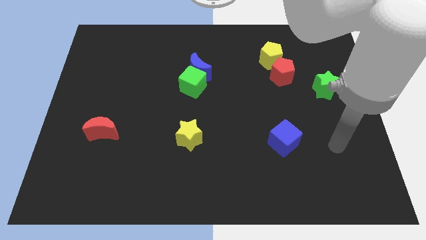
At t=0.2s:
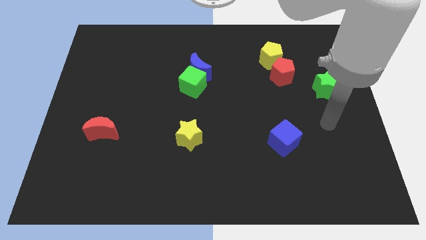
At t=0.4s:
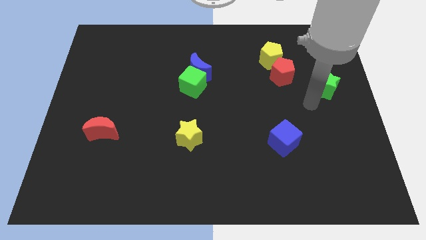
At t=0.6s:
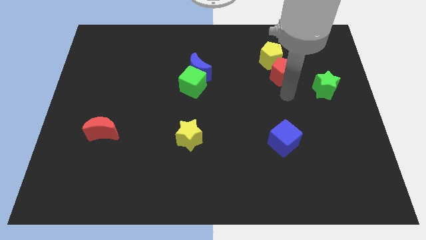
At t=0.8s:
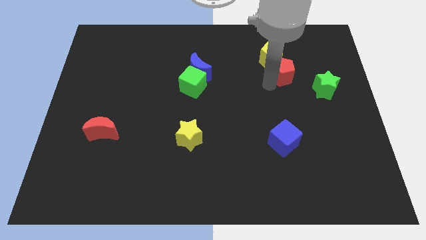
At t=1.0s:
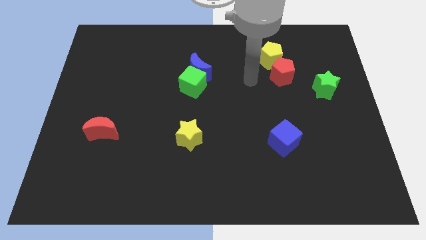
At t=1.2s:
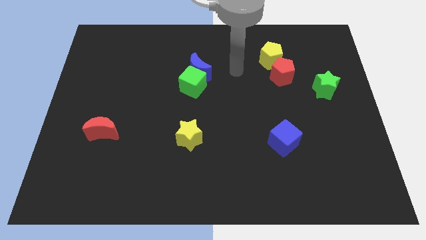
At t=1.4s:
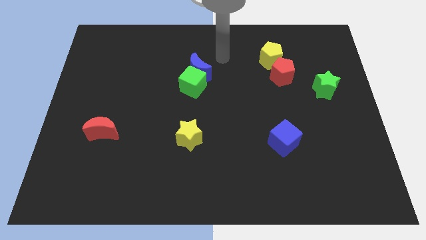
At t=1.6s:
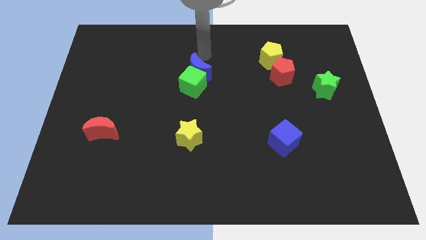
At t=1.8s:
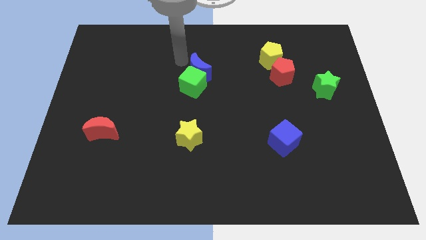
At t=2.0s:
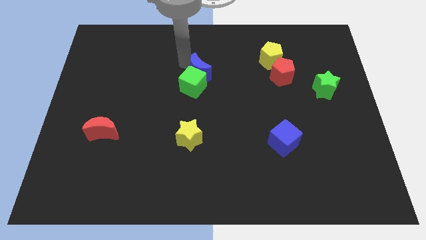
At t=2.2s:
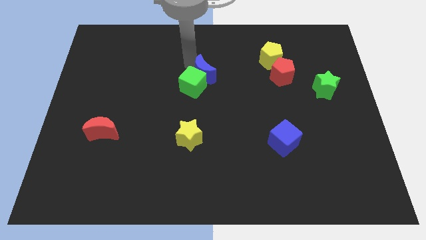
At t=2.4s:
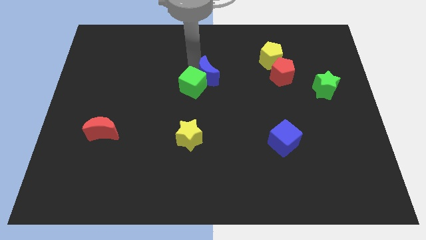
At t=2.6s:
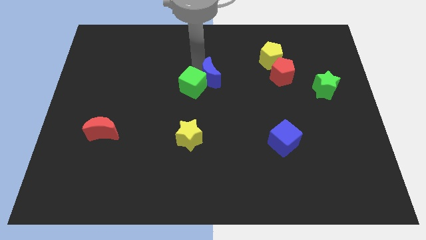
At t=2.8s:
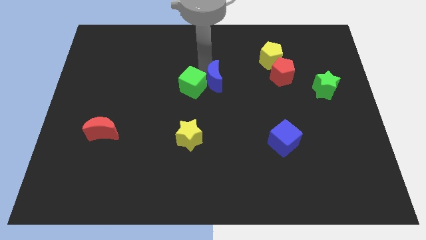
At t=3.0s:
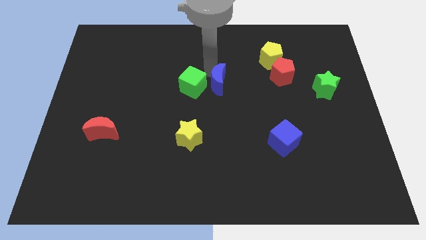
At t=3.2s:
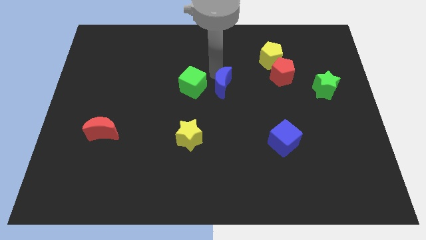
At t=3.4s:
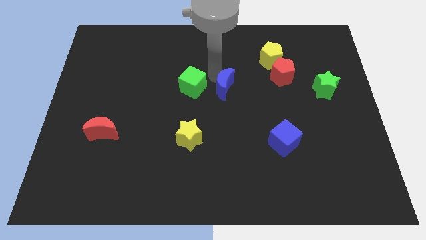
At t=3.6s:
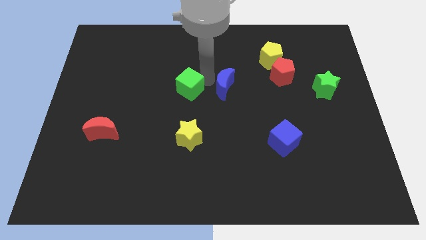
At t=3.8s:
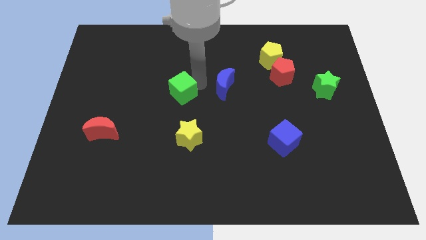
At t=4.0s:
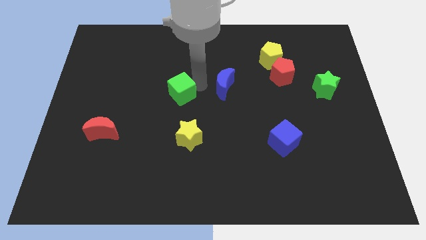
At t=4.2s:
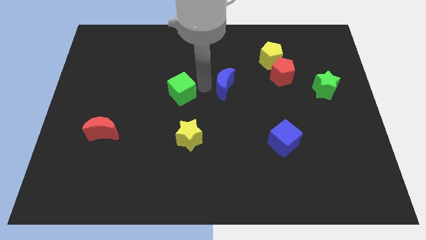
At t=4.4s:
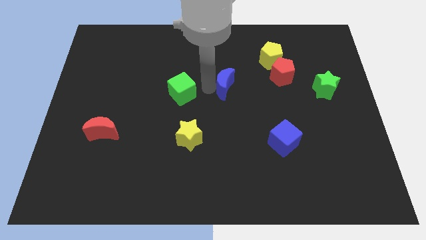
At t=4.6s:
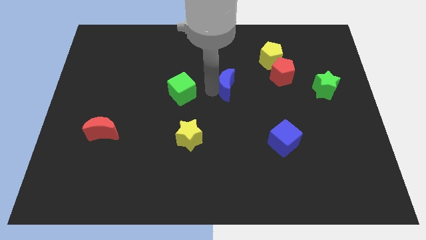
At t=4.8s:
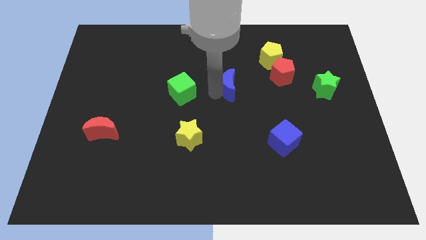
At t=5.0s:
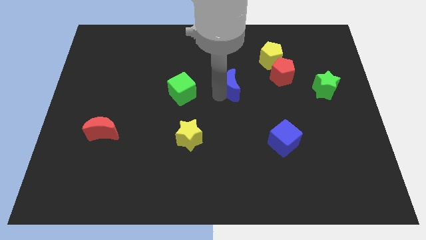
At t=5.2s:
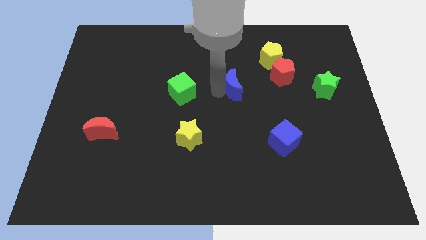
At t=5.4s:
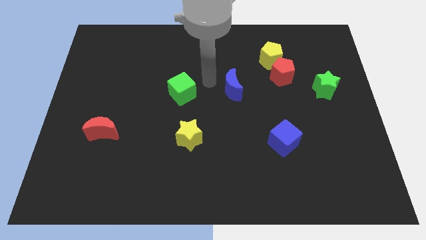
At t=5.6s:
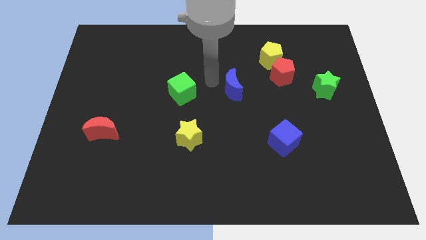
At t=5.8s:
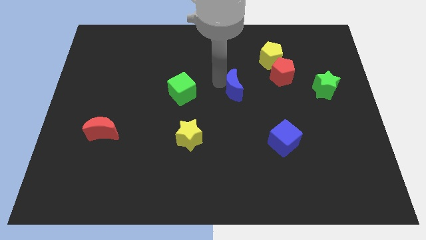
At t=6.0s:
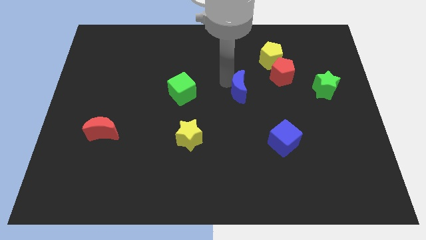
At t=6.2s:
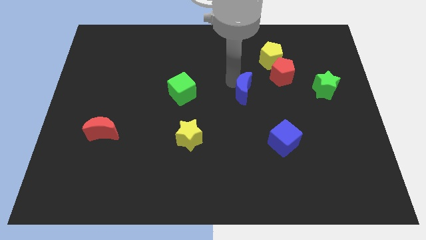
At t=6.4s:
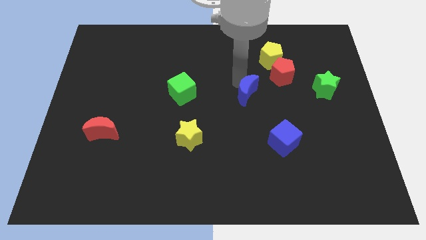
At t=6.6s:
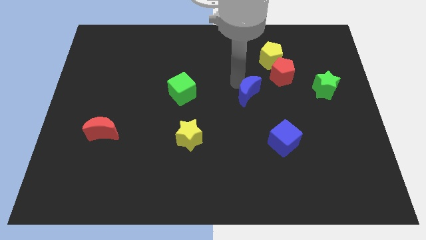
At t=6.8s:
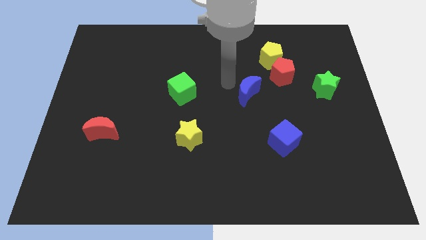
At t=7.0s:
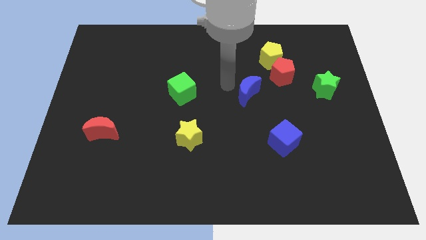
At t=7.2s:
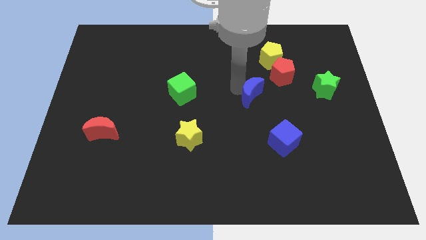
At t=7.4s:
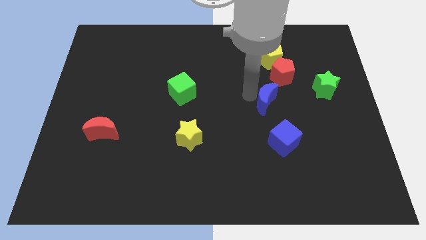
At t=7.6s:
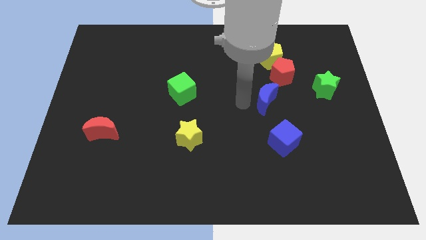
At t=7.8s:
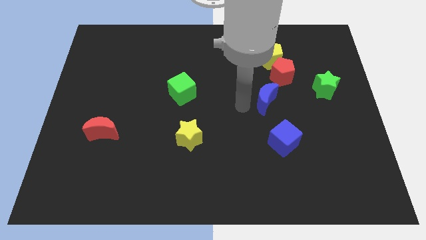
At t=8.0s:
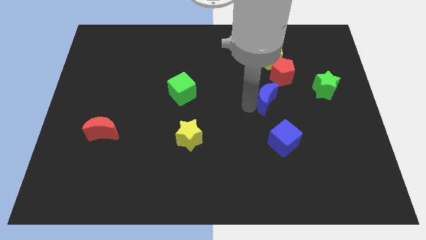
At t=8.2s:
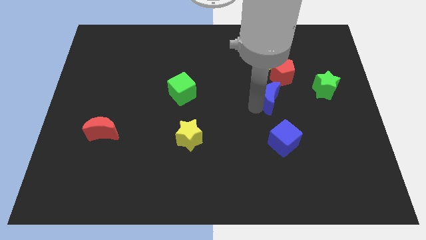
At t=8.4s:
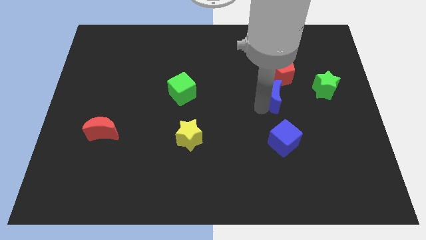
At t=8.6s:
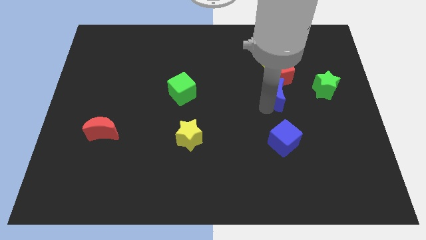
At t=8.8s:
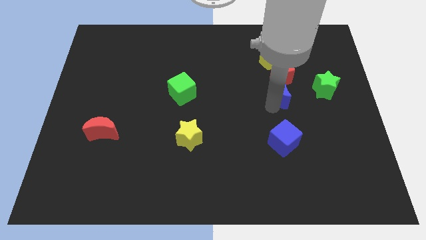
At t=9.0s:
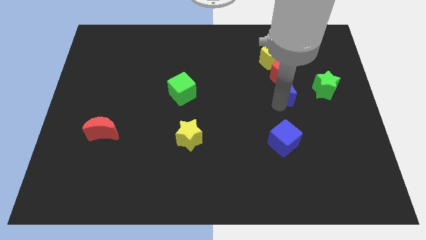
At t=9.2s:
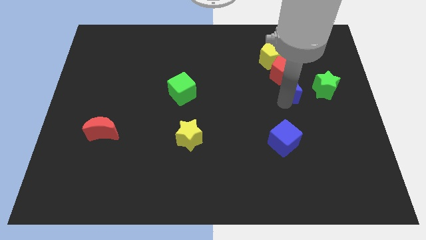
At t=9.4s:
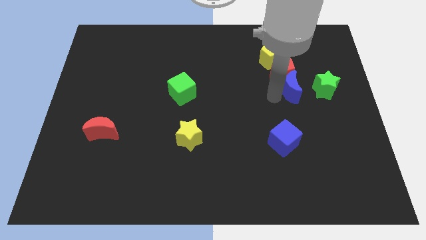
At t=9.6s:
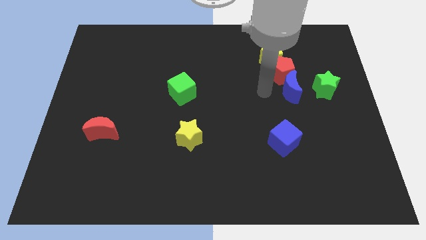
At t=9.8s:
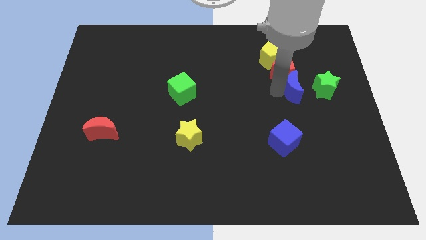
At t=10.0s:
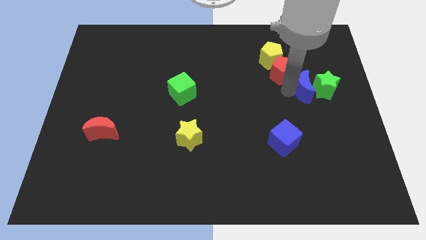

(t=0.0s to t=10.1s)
slide the blue moon close to the green star

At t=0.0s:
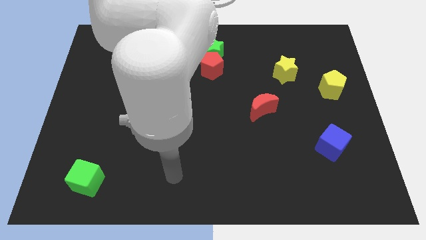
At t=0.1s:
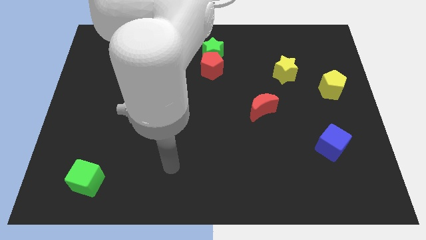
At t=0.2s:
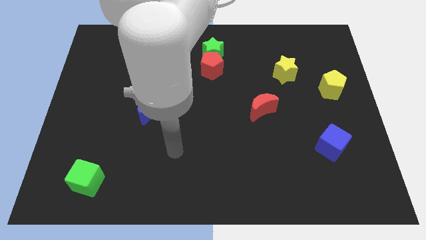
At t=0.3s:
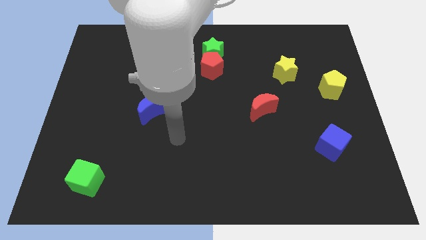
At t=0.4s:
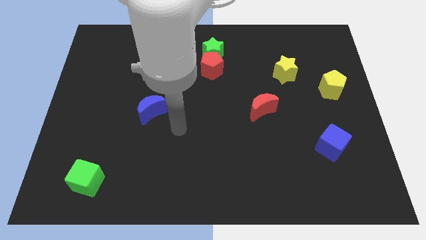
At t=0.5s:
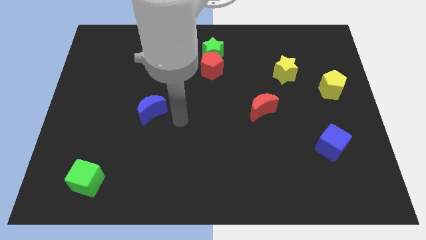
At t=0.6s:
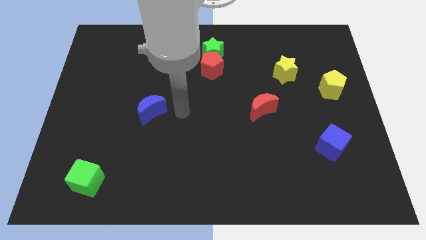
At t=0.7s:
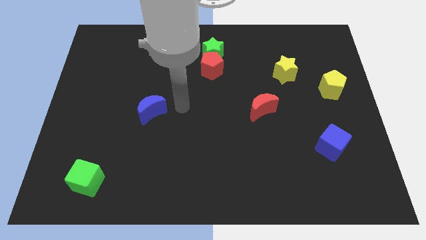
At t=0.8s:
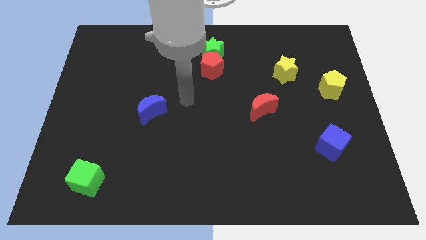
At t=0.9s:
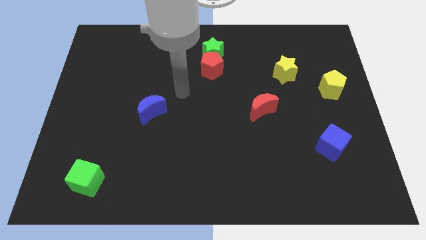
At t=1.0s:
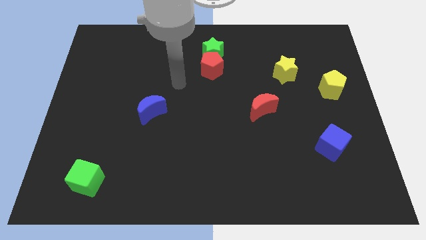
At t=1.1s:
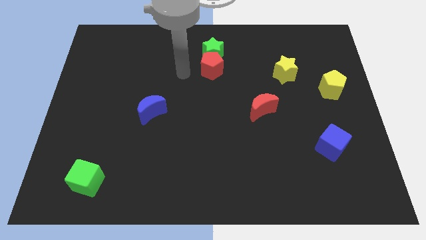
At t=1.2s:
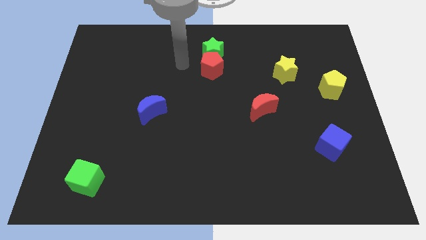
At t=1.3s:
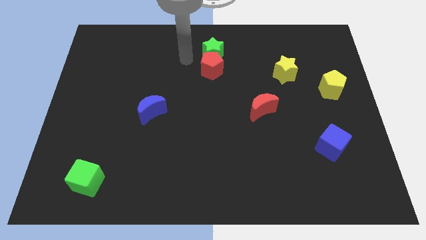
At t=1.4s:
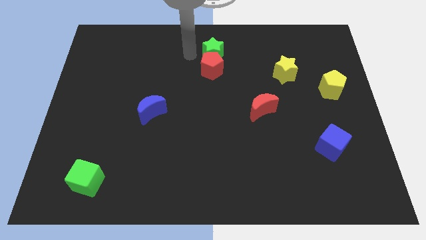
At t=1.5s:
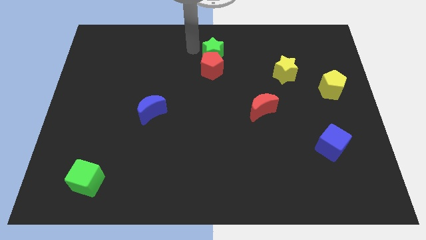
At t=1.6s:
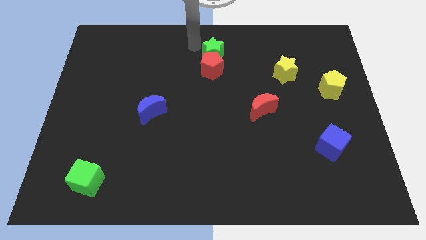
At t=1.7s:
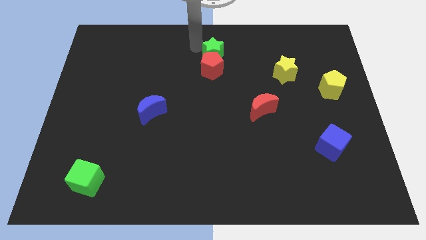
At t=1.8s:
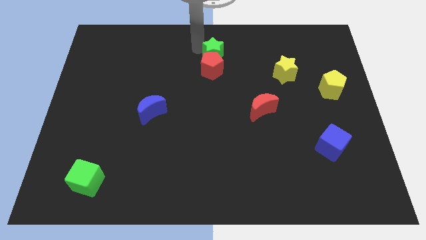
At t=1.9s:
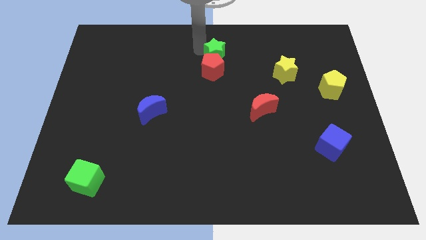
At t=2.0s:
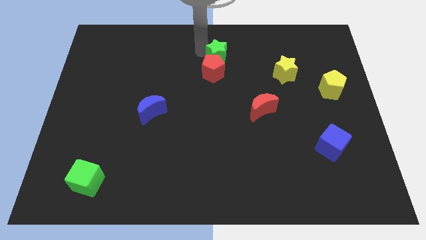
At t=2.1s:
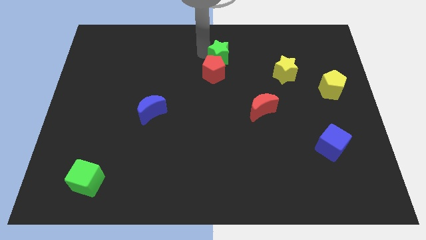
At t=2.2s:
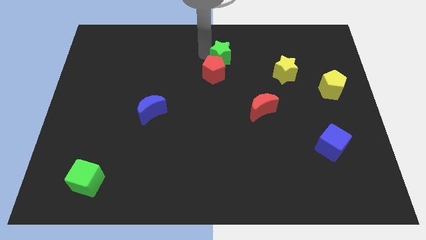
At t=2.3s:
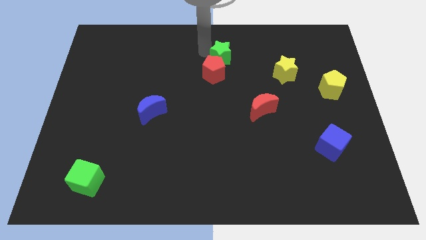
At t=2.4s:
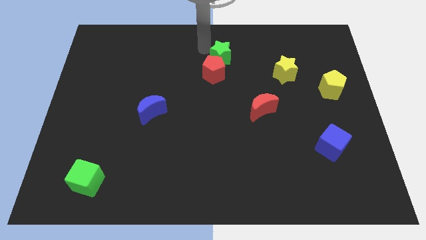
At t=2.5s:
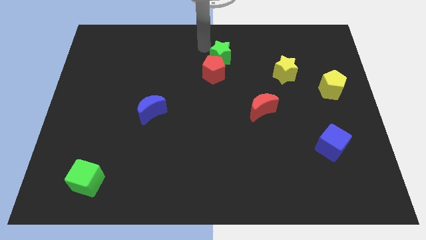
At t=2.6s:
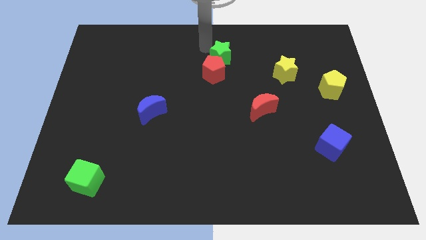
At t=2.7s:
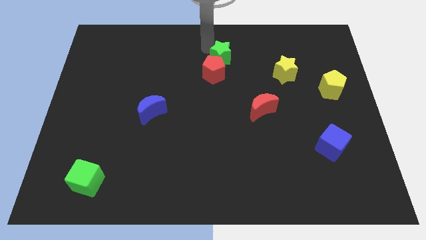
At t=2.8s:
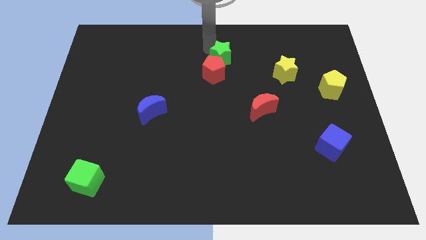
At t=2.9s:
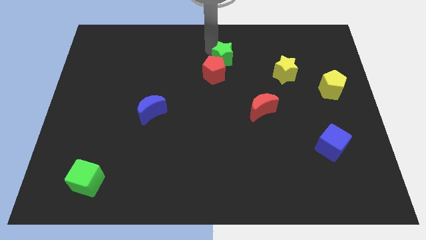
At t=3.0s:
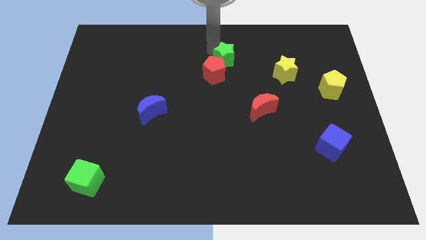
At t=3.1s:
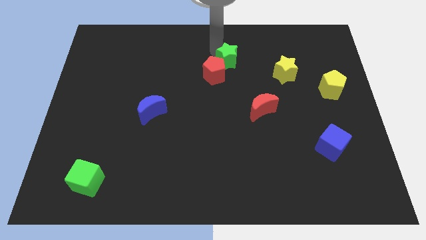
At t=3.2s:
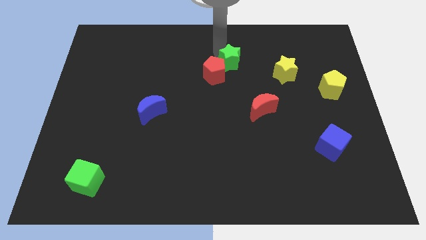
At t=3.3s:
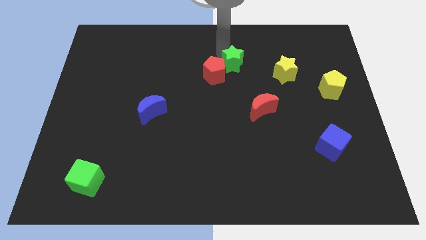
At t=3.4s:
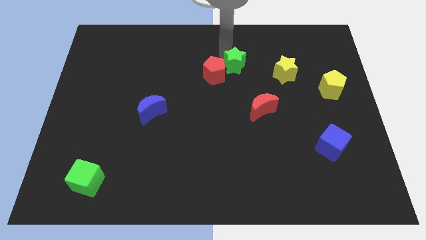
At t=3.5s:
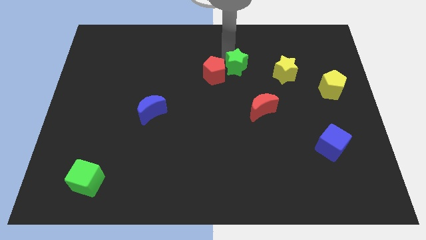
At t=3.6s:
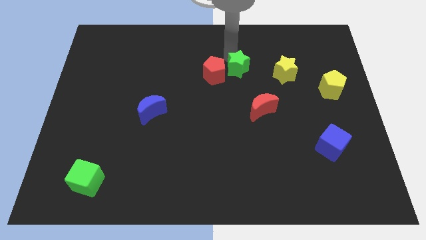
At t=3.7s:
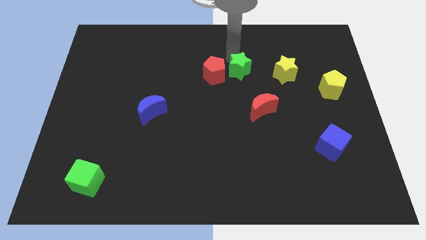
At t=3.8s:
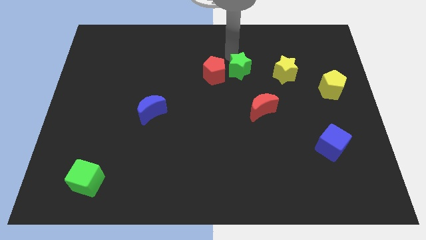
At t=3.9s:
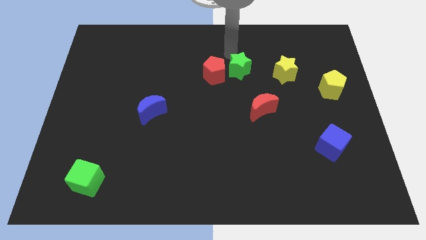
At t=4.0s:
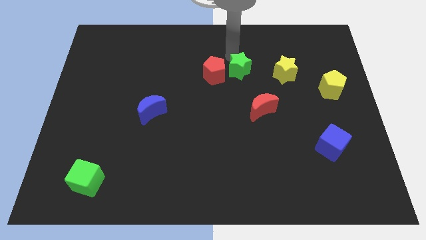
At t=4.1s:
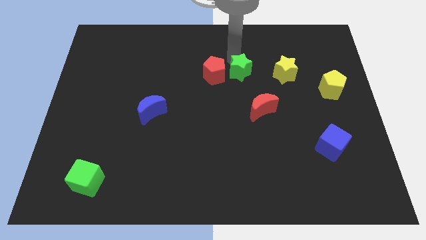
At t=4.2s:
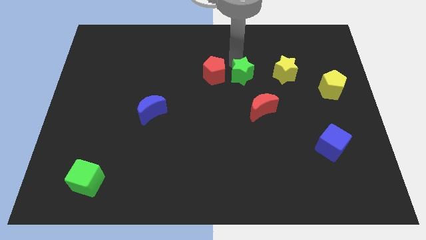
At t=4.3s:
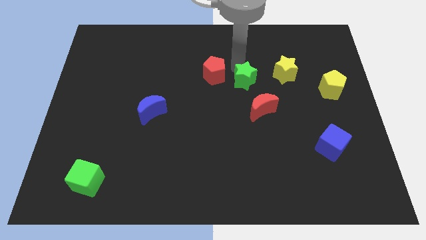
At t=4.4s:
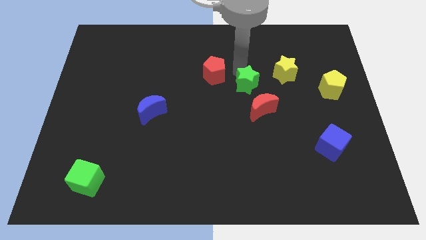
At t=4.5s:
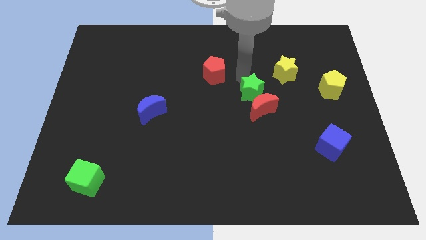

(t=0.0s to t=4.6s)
put the green star to the red moon
